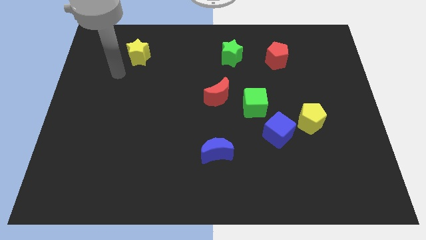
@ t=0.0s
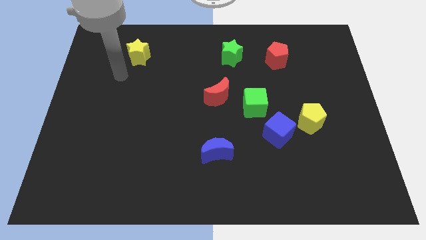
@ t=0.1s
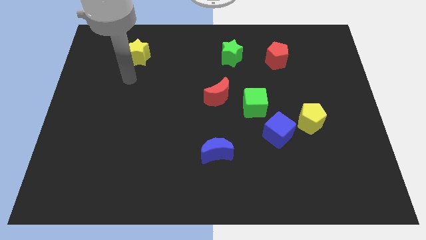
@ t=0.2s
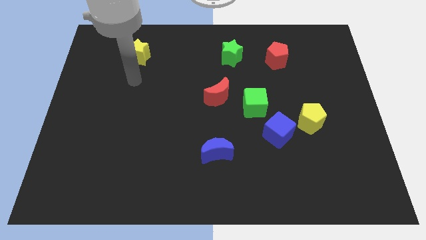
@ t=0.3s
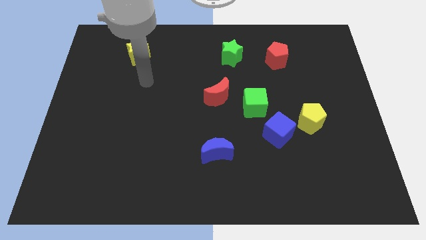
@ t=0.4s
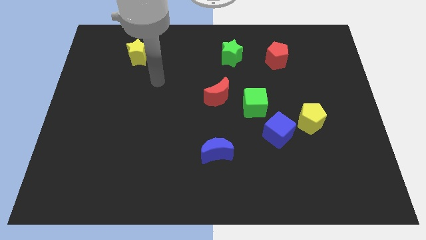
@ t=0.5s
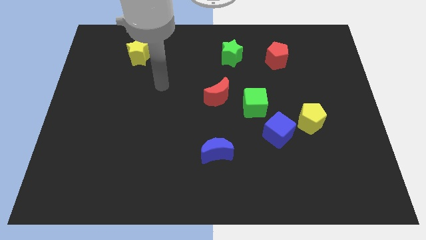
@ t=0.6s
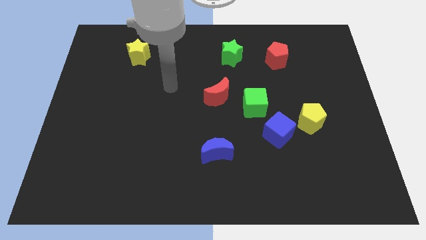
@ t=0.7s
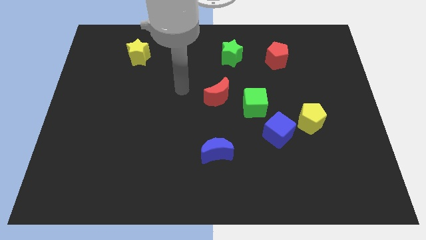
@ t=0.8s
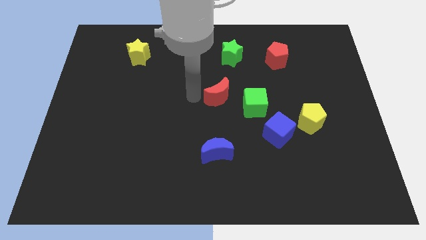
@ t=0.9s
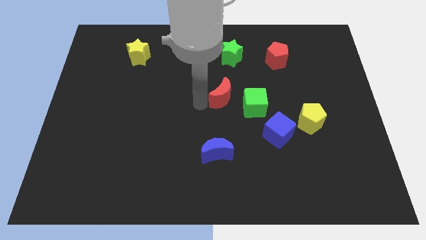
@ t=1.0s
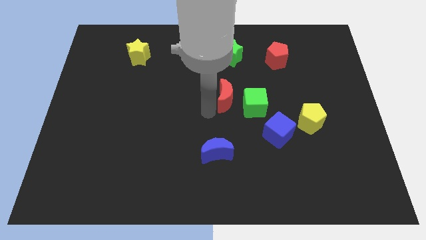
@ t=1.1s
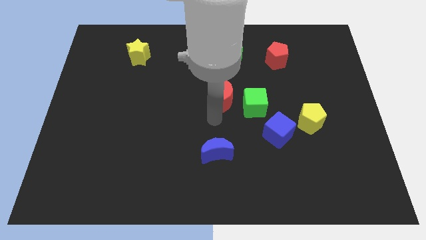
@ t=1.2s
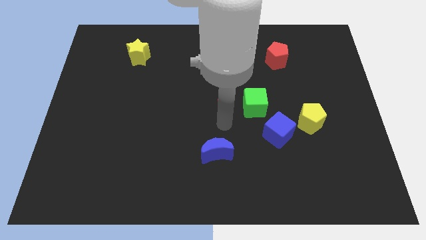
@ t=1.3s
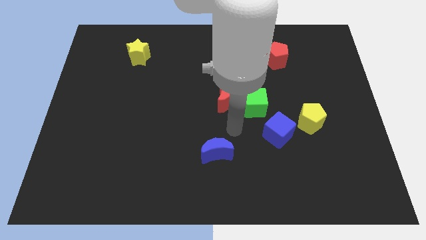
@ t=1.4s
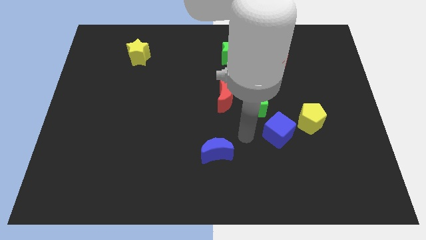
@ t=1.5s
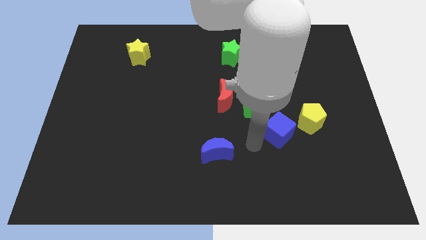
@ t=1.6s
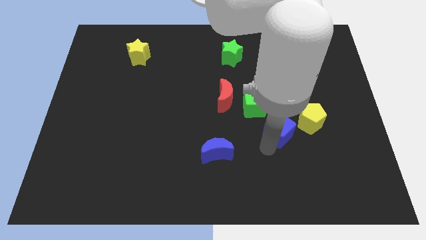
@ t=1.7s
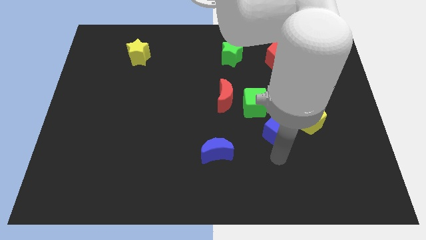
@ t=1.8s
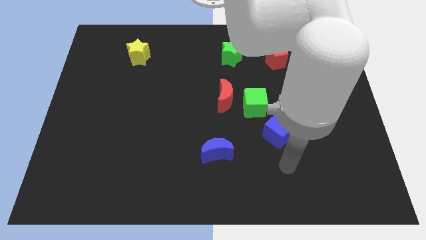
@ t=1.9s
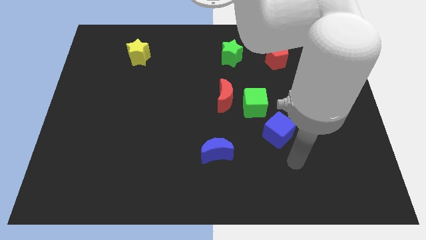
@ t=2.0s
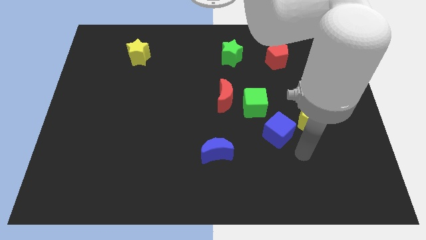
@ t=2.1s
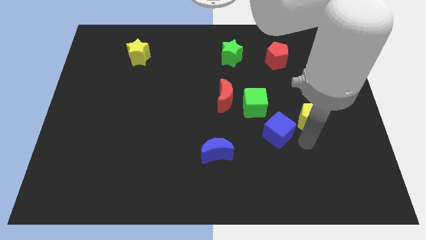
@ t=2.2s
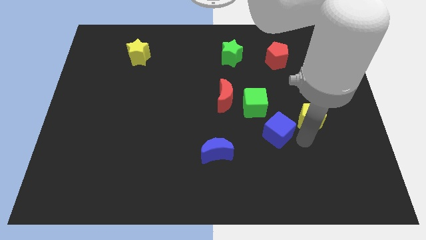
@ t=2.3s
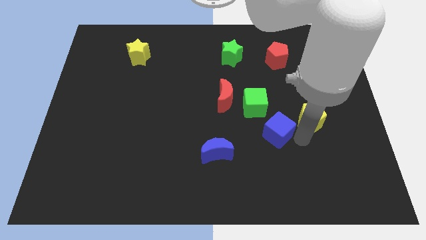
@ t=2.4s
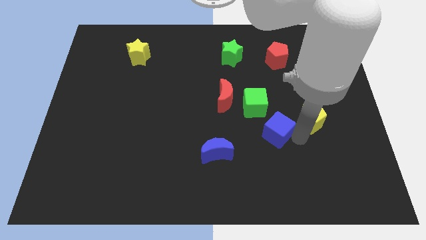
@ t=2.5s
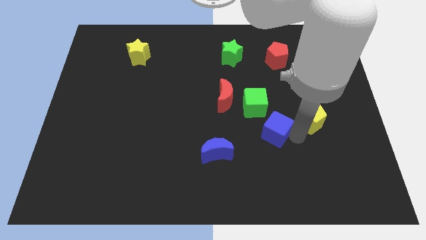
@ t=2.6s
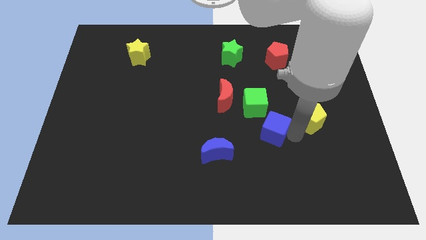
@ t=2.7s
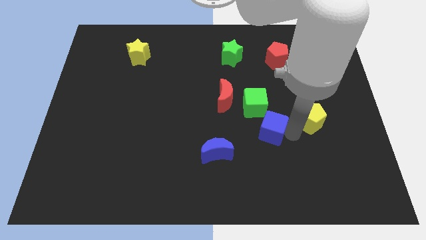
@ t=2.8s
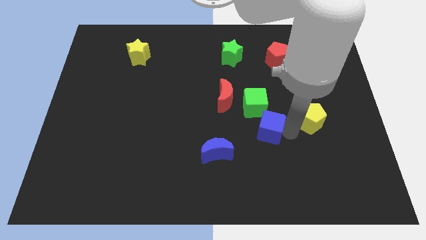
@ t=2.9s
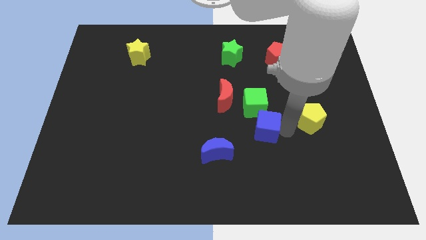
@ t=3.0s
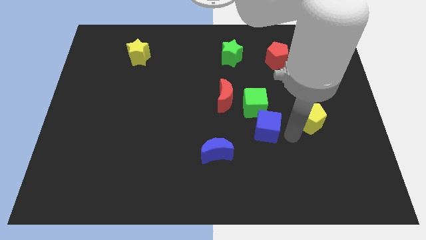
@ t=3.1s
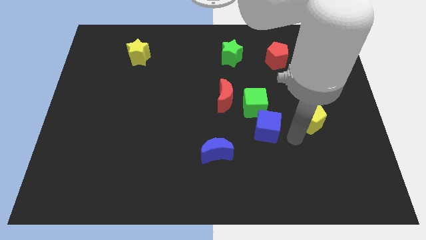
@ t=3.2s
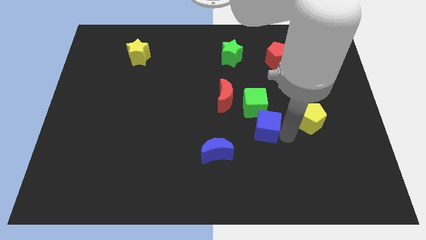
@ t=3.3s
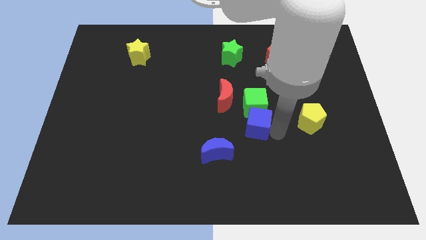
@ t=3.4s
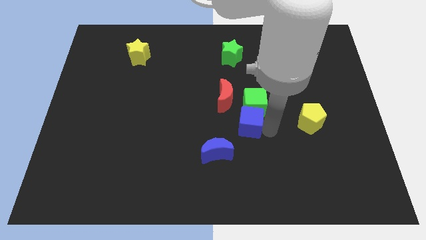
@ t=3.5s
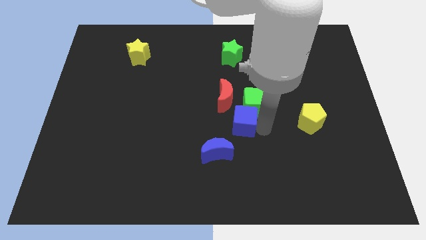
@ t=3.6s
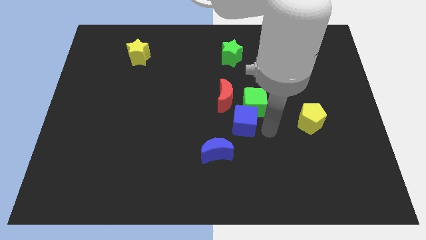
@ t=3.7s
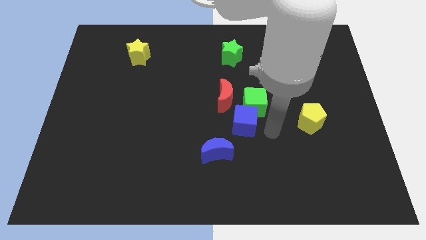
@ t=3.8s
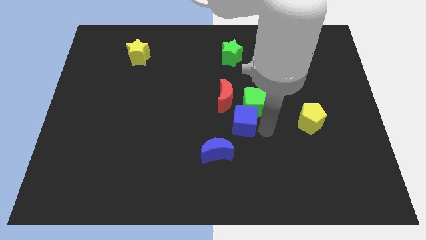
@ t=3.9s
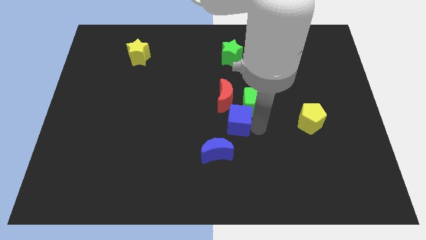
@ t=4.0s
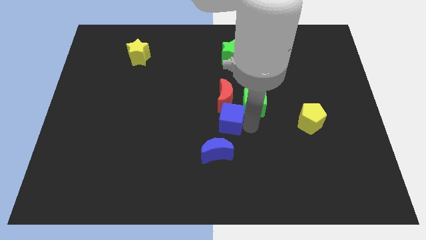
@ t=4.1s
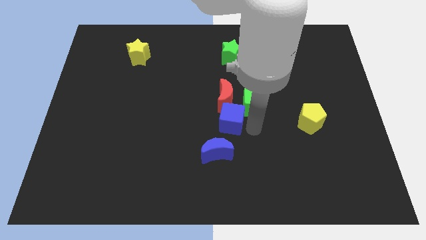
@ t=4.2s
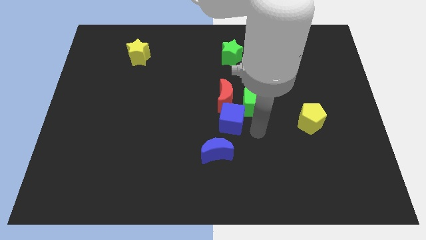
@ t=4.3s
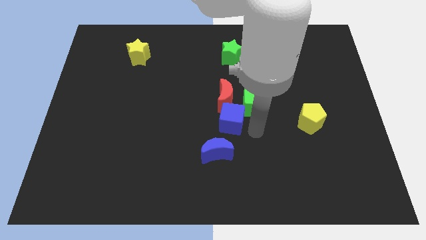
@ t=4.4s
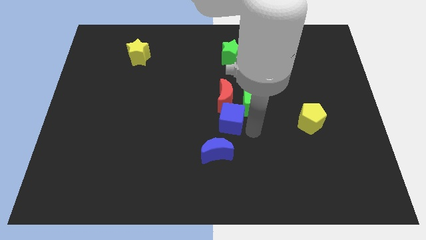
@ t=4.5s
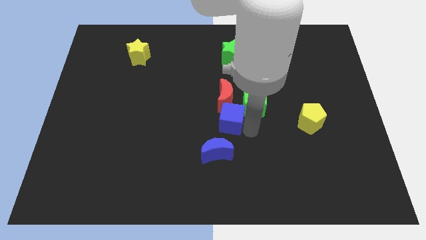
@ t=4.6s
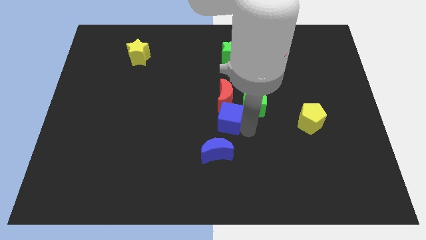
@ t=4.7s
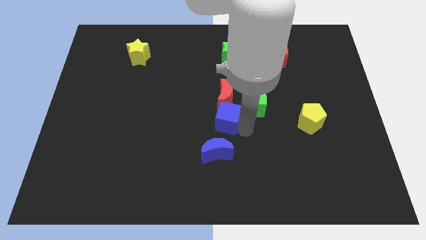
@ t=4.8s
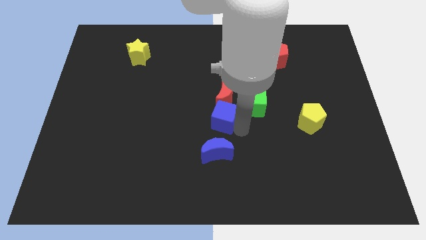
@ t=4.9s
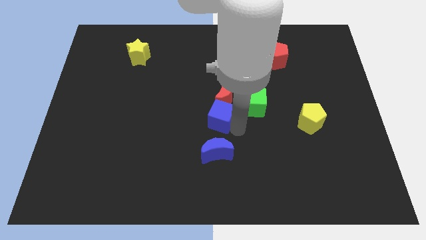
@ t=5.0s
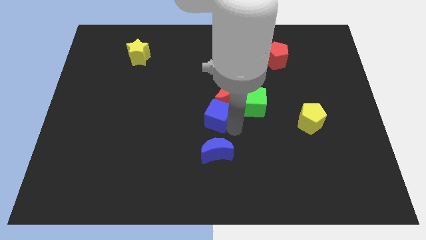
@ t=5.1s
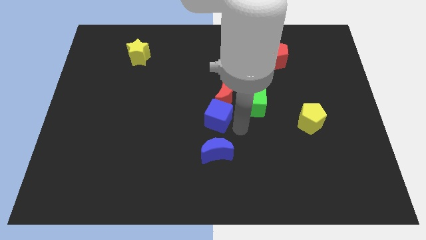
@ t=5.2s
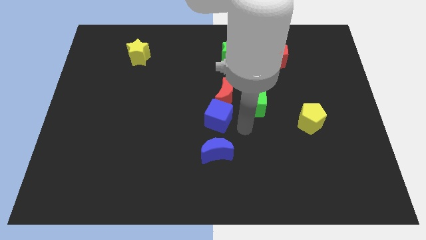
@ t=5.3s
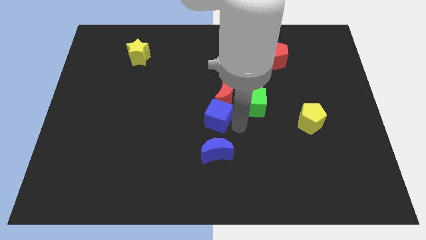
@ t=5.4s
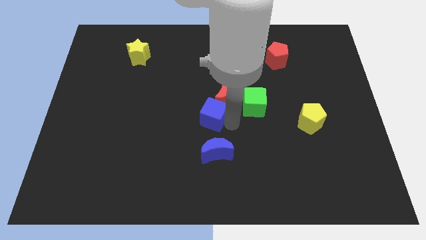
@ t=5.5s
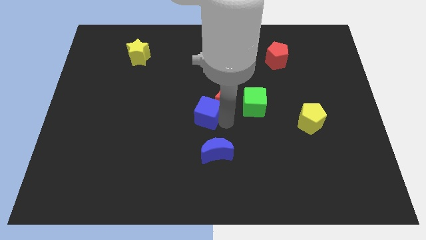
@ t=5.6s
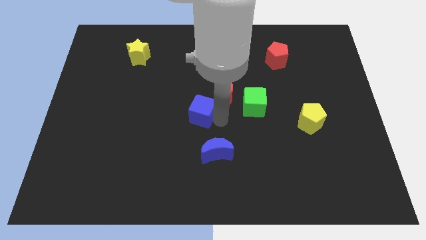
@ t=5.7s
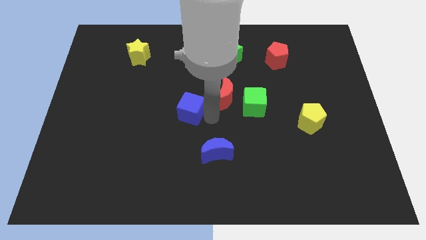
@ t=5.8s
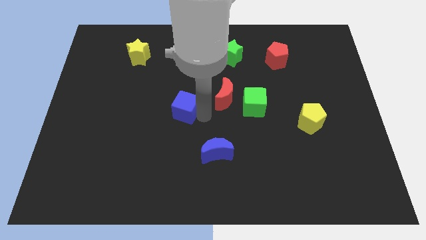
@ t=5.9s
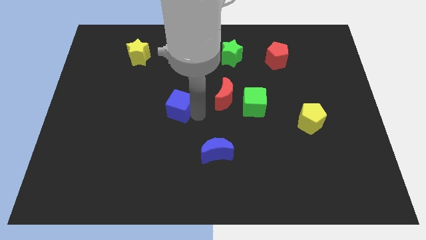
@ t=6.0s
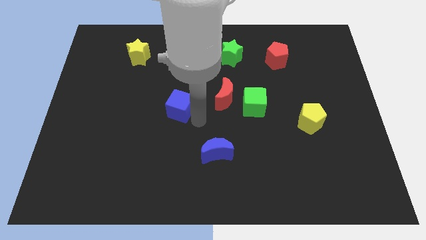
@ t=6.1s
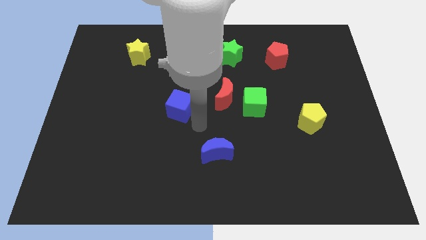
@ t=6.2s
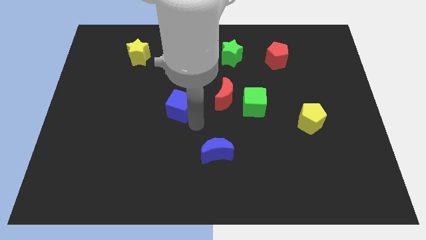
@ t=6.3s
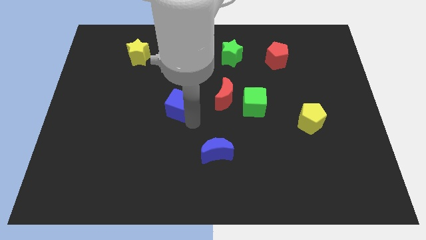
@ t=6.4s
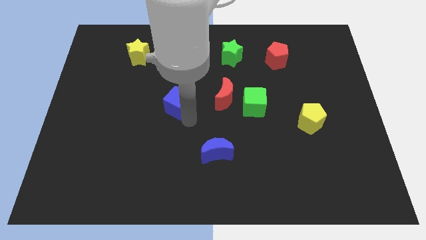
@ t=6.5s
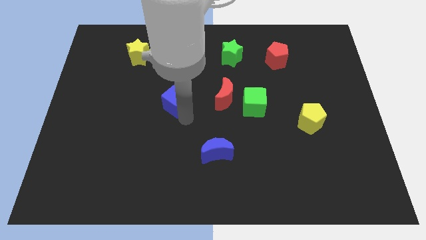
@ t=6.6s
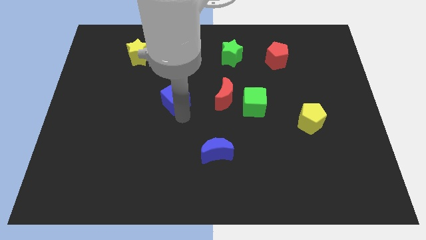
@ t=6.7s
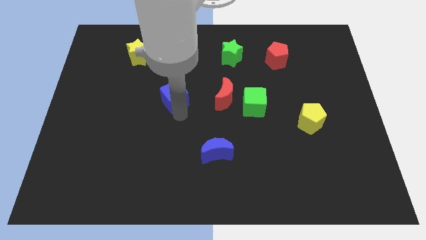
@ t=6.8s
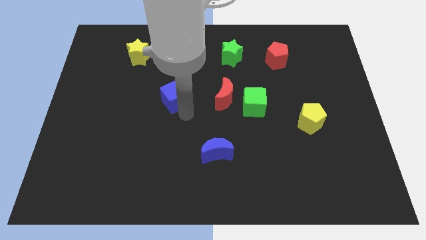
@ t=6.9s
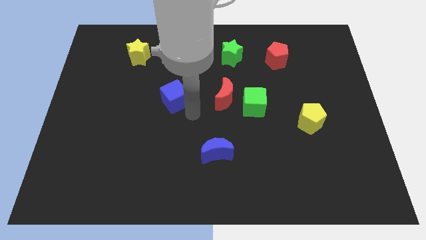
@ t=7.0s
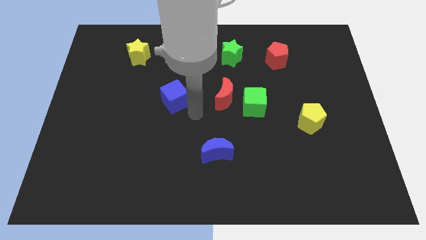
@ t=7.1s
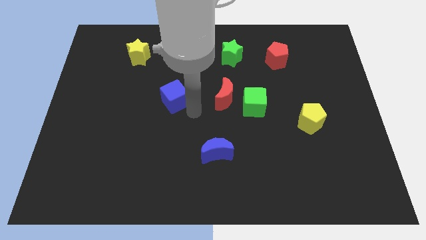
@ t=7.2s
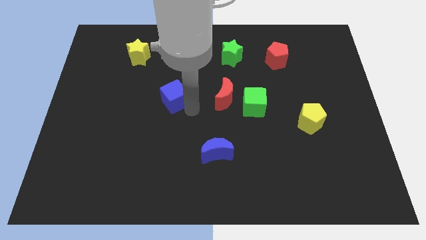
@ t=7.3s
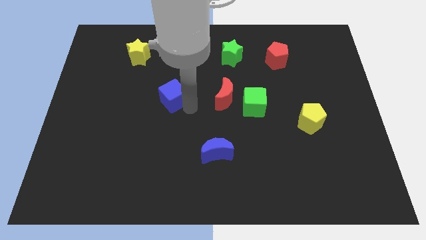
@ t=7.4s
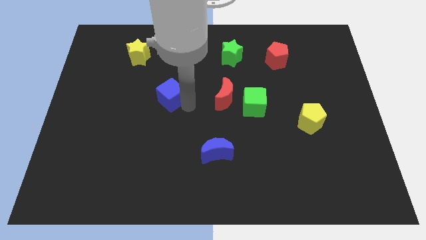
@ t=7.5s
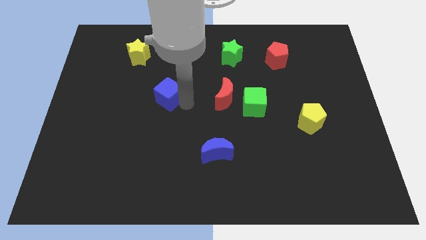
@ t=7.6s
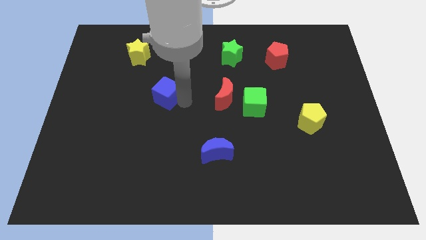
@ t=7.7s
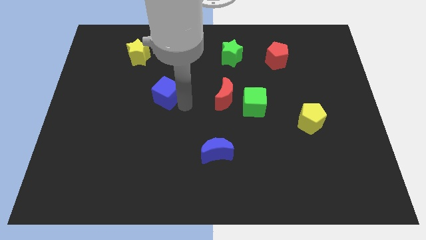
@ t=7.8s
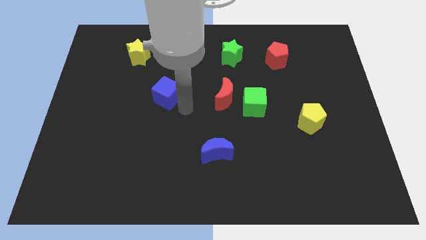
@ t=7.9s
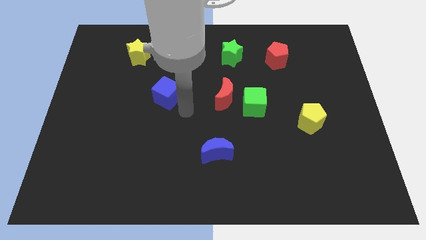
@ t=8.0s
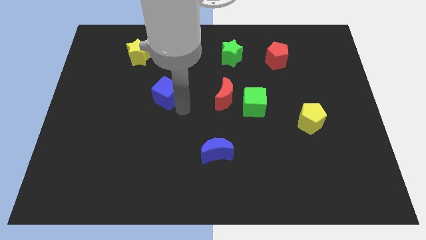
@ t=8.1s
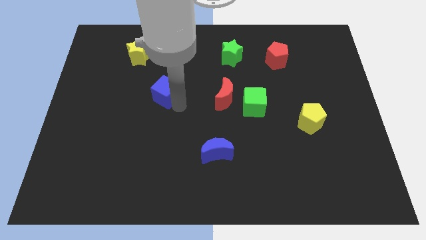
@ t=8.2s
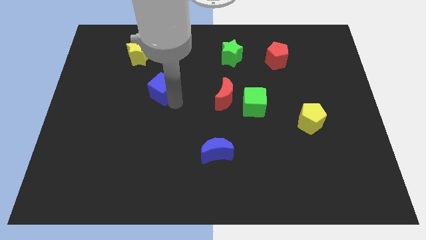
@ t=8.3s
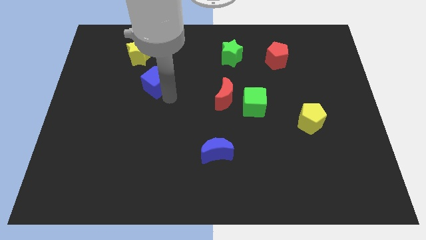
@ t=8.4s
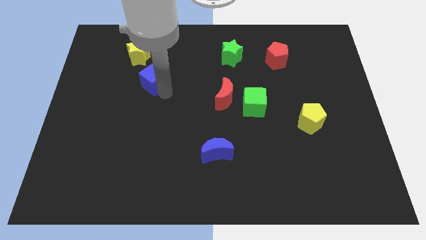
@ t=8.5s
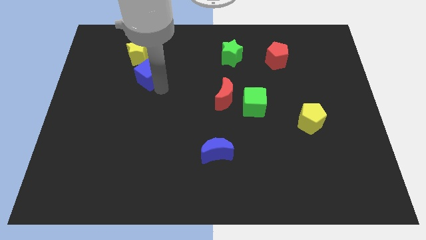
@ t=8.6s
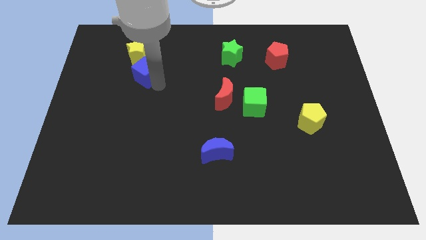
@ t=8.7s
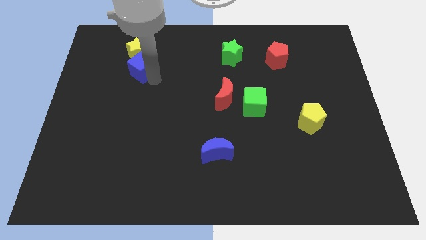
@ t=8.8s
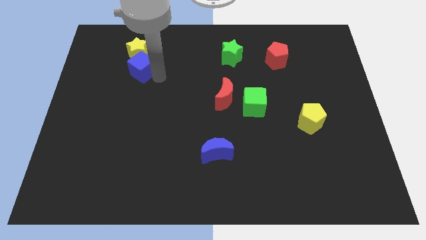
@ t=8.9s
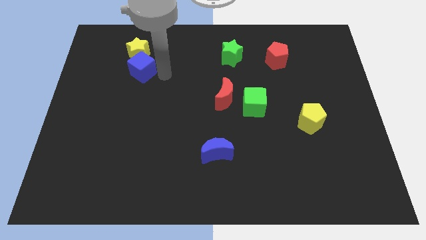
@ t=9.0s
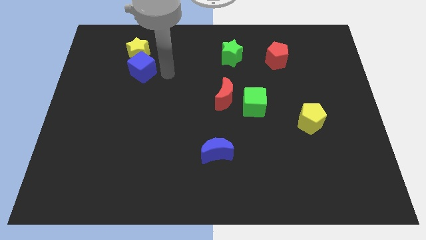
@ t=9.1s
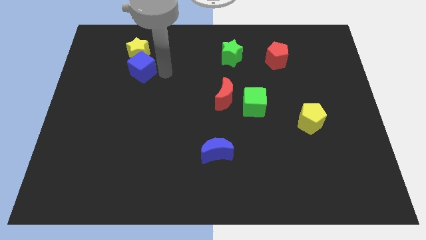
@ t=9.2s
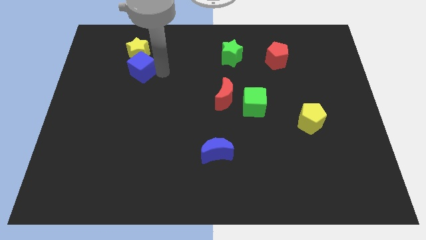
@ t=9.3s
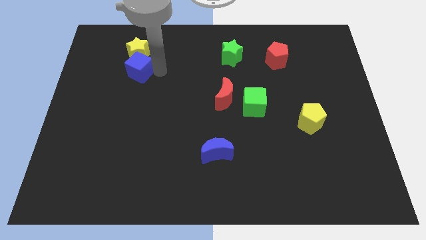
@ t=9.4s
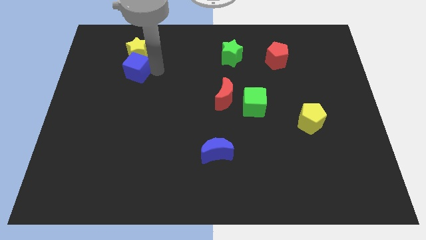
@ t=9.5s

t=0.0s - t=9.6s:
push the blue cube to the bottom left side of the yellow star
